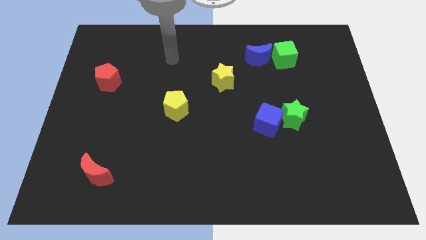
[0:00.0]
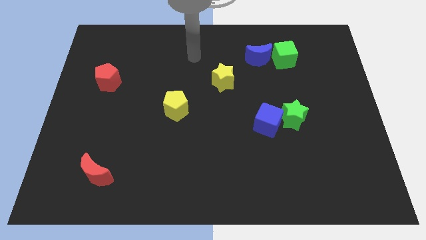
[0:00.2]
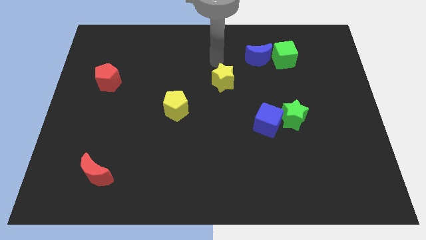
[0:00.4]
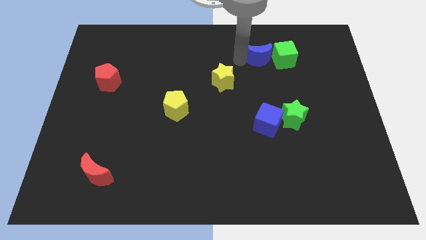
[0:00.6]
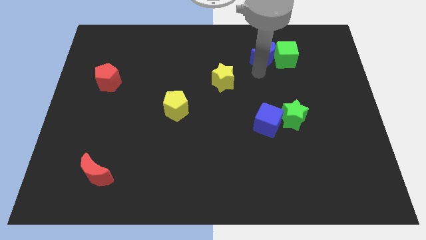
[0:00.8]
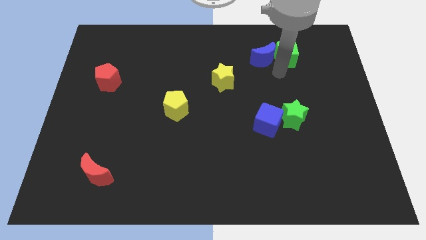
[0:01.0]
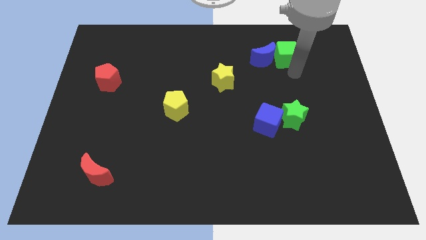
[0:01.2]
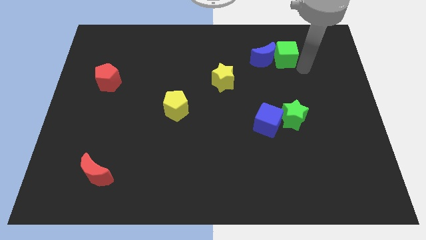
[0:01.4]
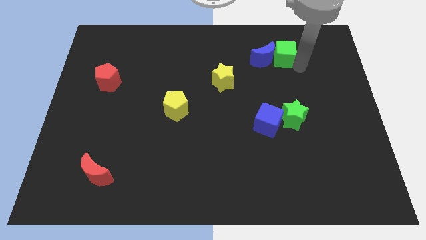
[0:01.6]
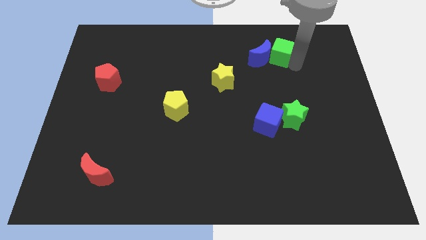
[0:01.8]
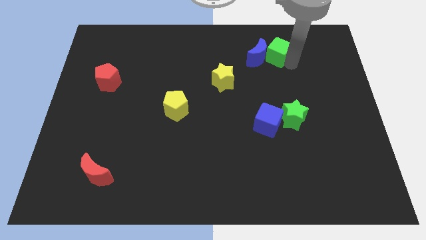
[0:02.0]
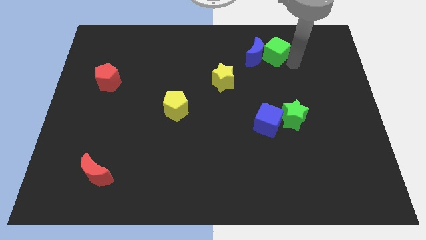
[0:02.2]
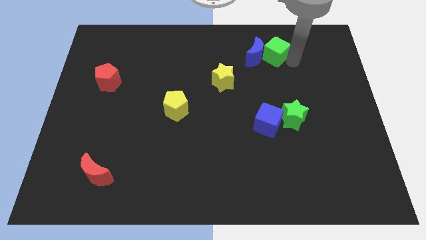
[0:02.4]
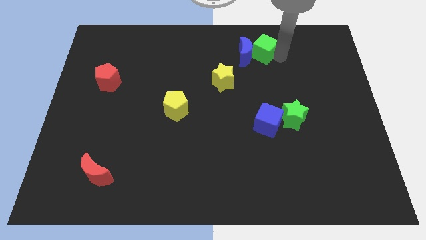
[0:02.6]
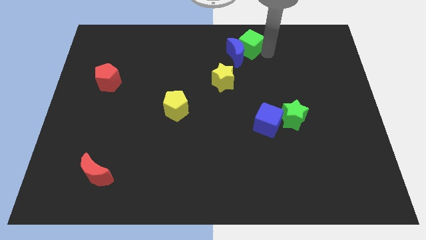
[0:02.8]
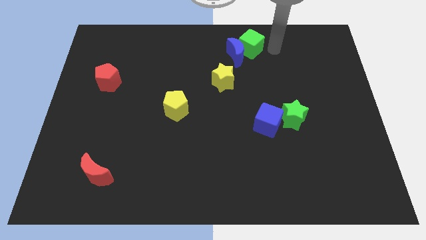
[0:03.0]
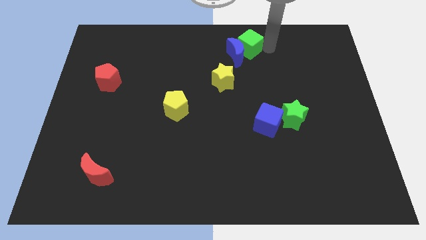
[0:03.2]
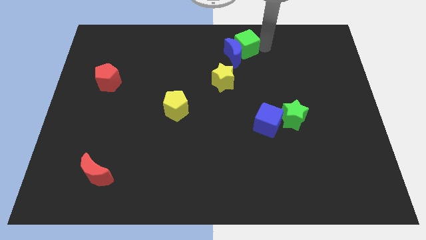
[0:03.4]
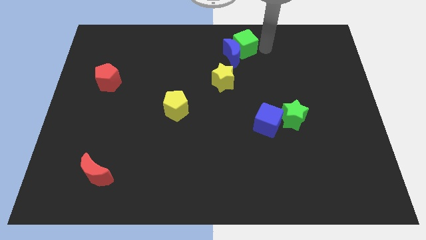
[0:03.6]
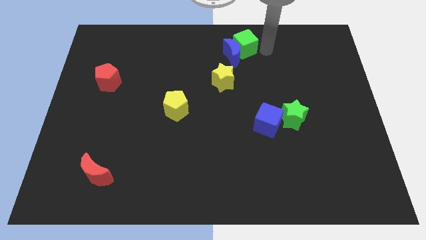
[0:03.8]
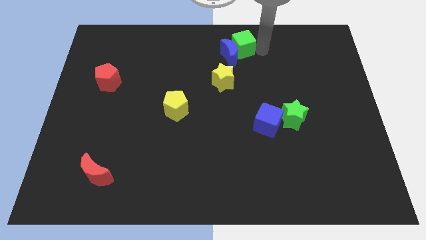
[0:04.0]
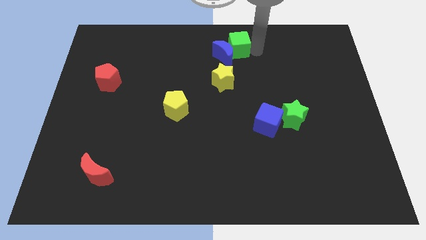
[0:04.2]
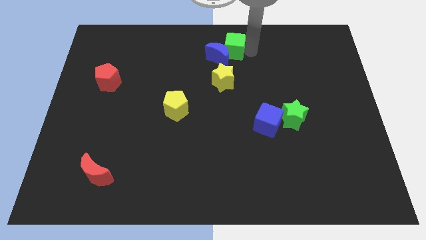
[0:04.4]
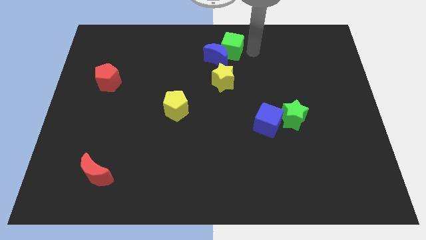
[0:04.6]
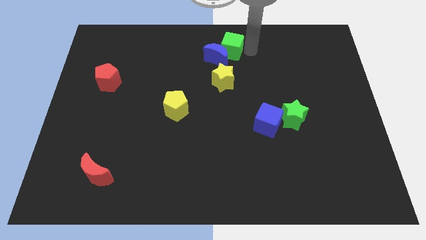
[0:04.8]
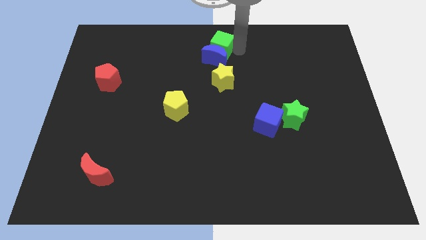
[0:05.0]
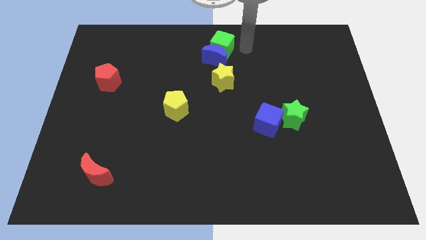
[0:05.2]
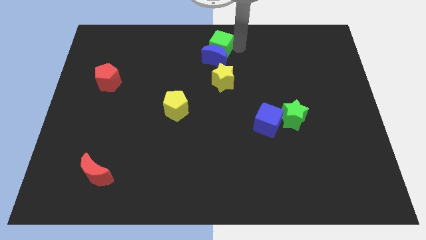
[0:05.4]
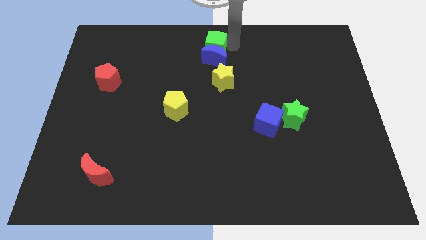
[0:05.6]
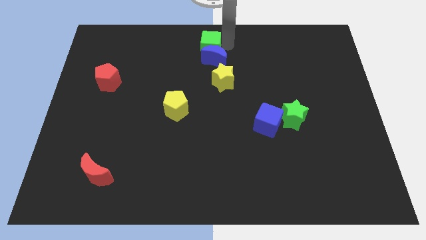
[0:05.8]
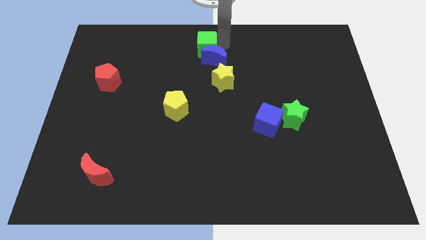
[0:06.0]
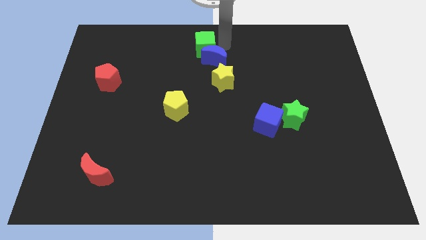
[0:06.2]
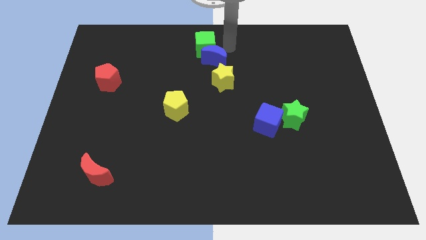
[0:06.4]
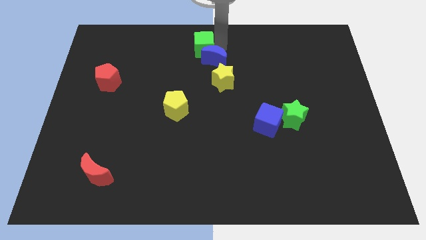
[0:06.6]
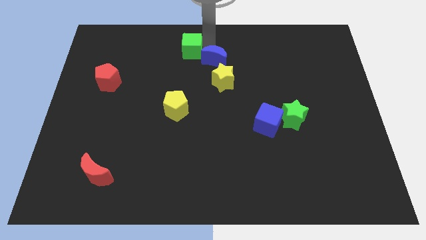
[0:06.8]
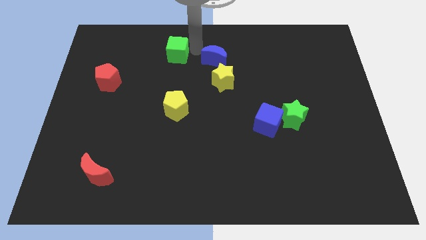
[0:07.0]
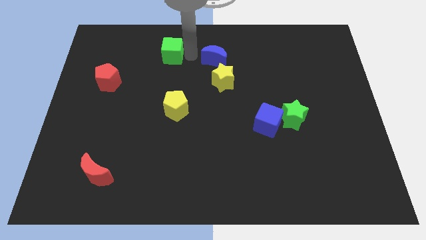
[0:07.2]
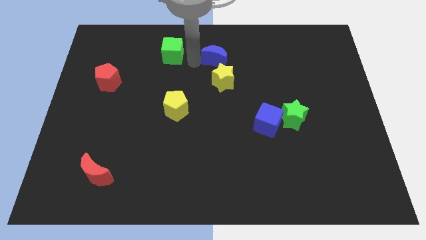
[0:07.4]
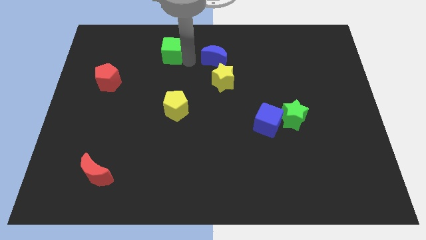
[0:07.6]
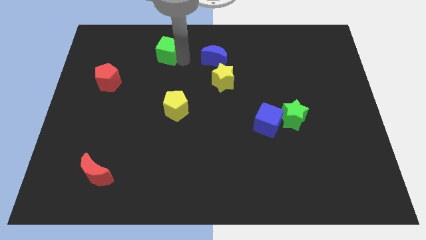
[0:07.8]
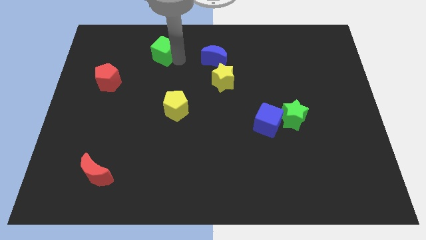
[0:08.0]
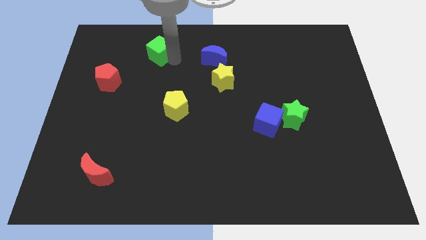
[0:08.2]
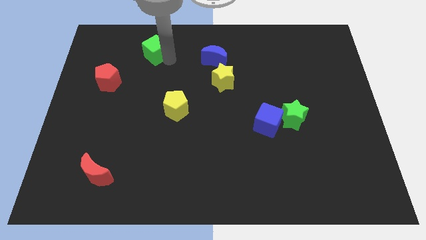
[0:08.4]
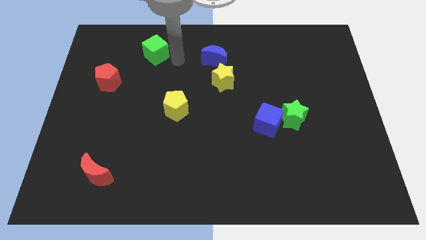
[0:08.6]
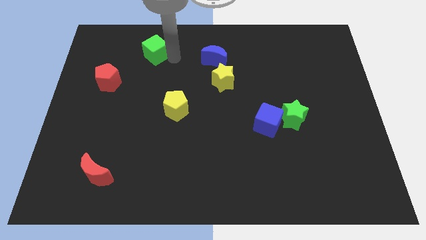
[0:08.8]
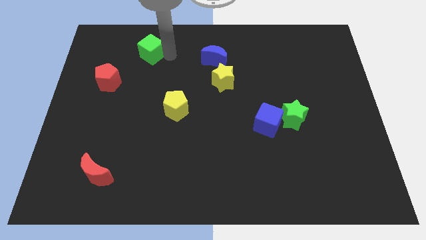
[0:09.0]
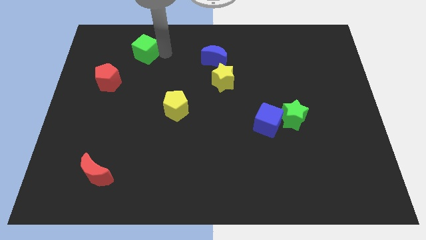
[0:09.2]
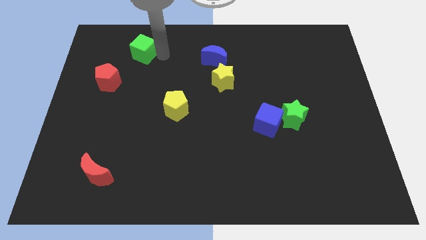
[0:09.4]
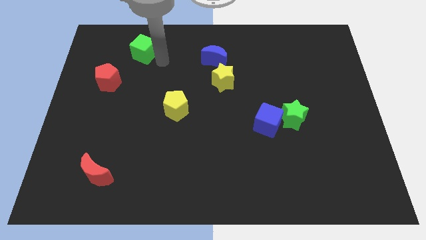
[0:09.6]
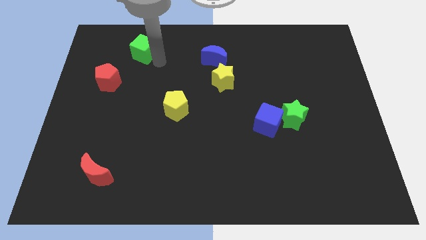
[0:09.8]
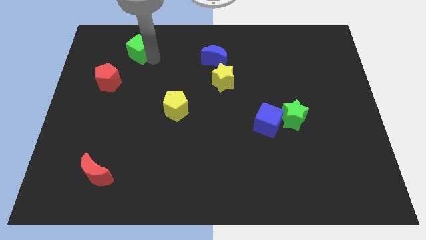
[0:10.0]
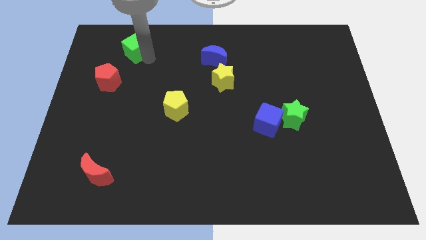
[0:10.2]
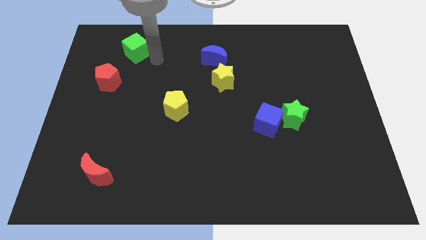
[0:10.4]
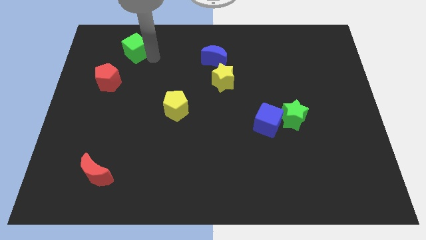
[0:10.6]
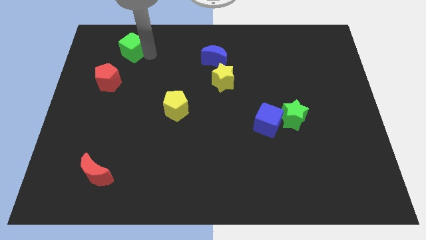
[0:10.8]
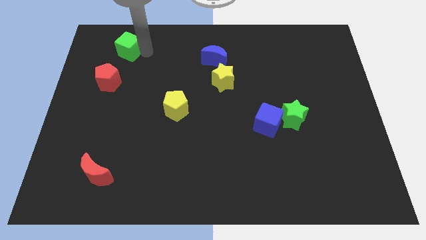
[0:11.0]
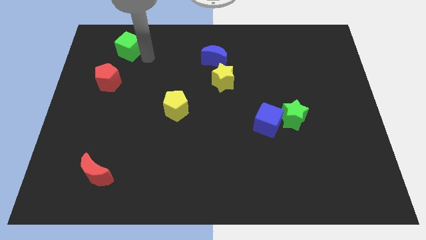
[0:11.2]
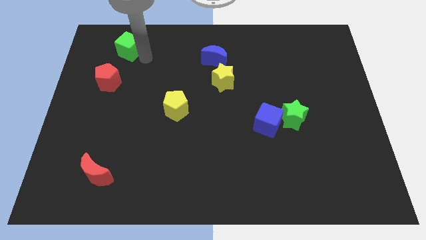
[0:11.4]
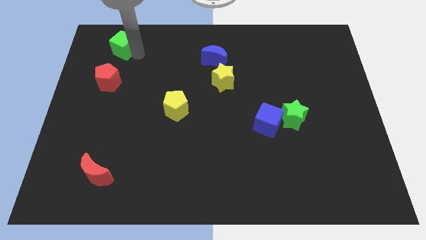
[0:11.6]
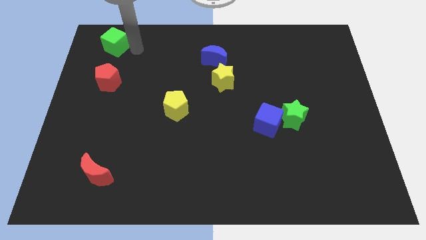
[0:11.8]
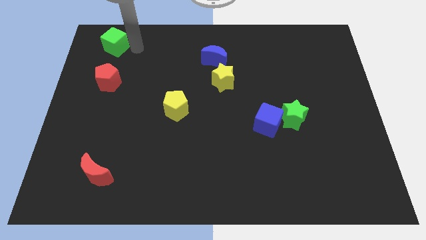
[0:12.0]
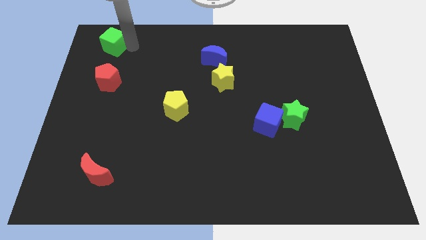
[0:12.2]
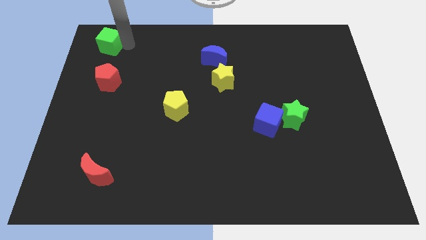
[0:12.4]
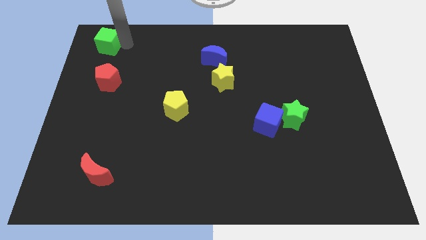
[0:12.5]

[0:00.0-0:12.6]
slide the green cube to the top left

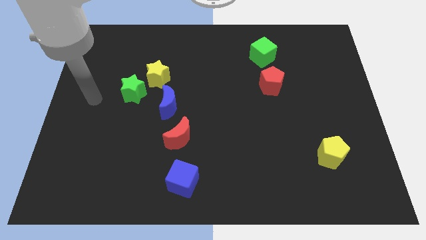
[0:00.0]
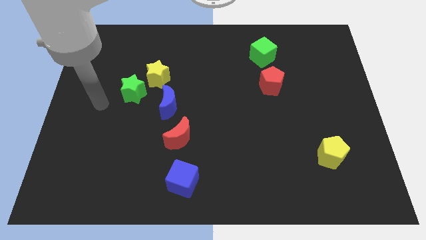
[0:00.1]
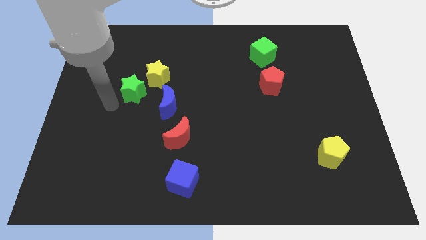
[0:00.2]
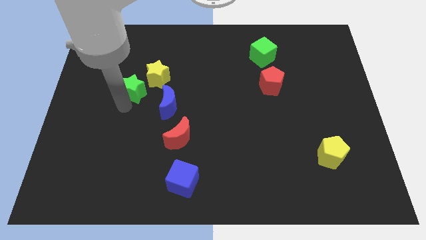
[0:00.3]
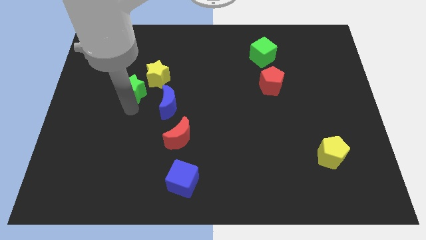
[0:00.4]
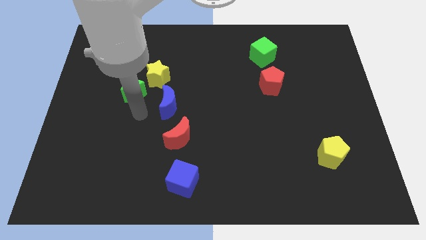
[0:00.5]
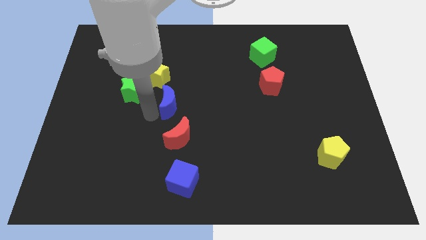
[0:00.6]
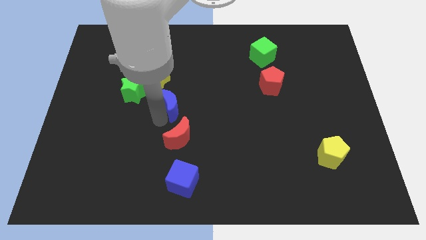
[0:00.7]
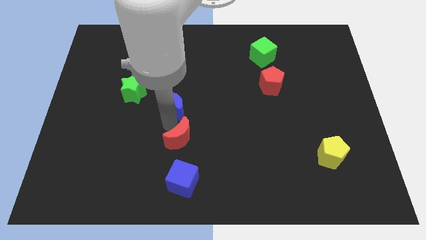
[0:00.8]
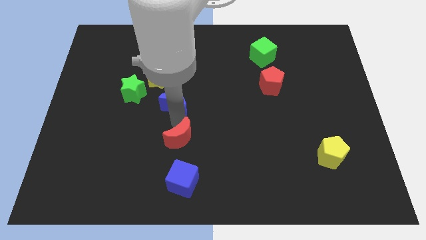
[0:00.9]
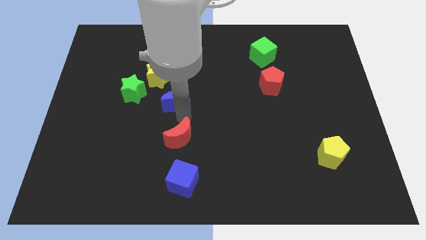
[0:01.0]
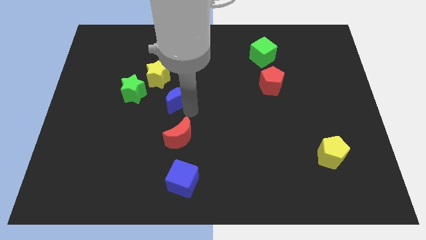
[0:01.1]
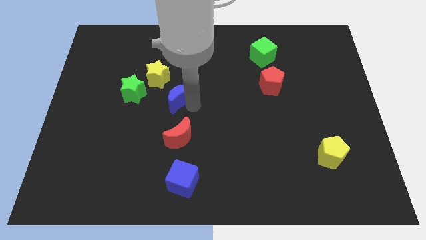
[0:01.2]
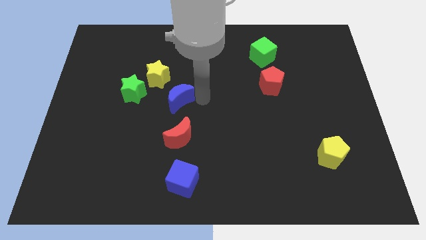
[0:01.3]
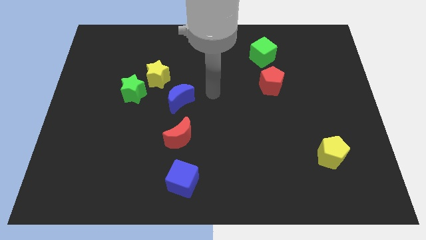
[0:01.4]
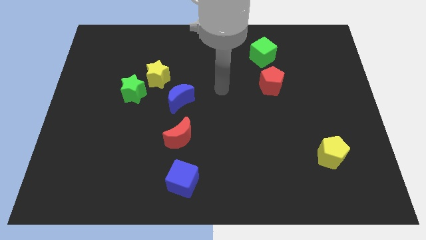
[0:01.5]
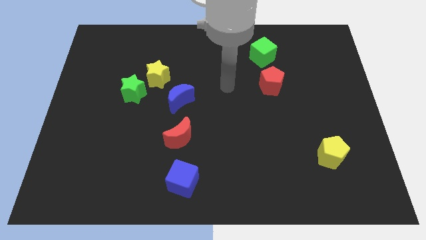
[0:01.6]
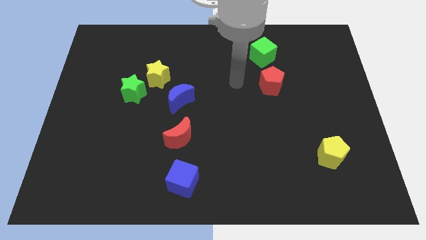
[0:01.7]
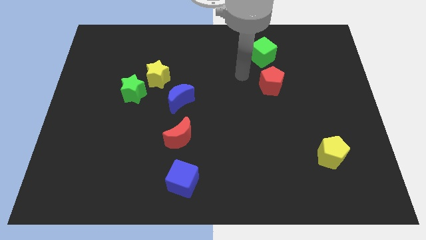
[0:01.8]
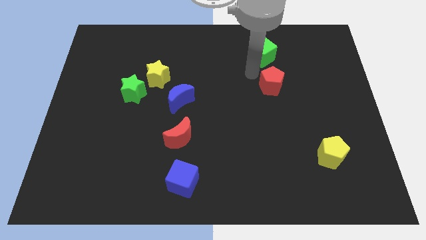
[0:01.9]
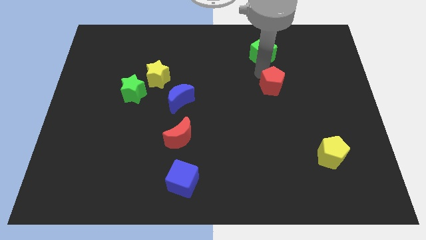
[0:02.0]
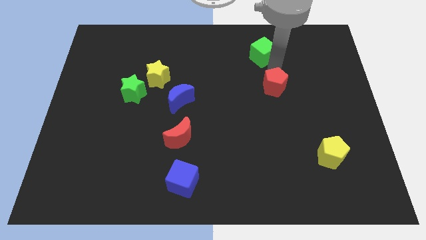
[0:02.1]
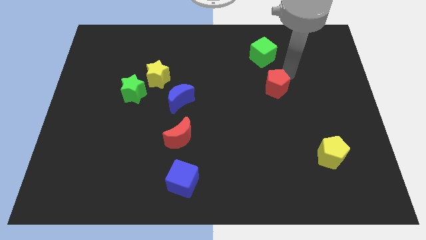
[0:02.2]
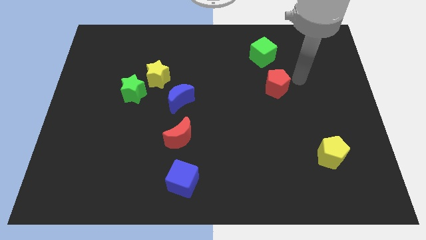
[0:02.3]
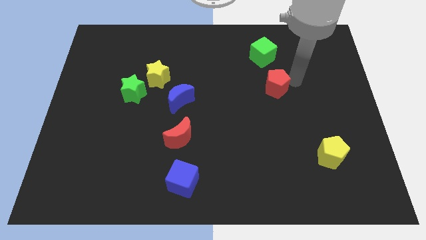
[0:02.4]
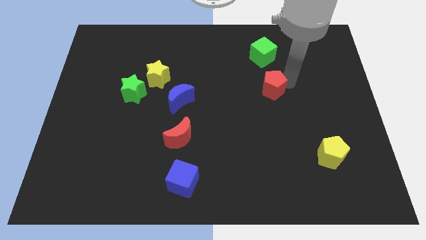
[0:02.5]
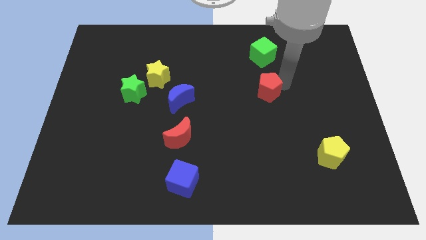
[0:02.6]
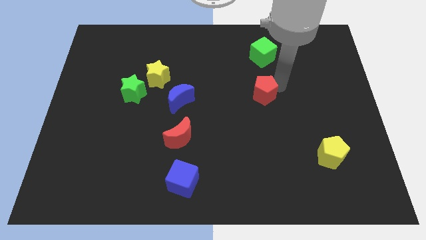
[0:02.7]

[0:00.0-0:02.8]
slide the red pentagon to the center of the board
